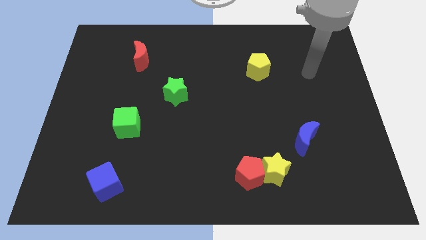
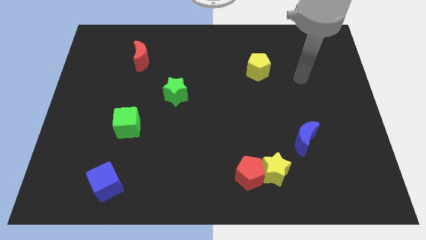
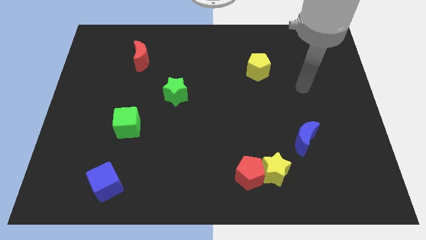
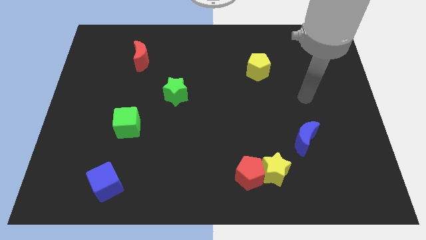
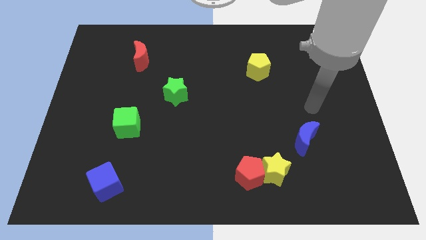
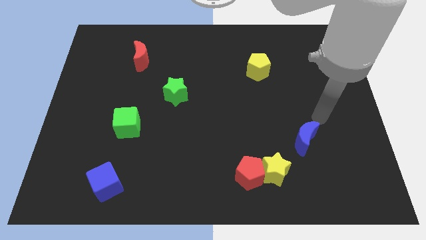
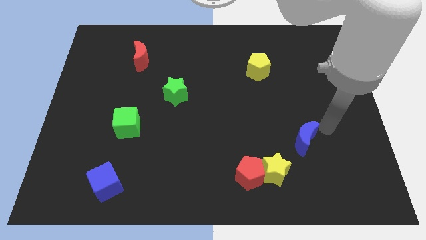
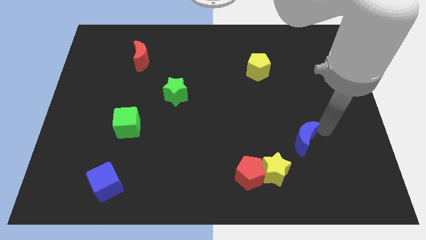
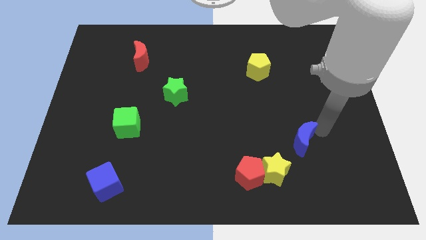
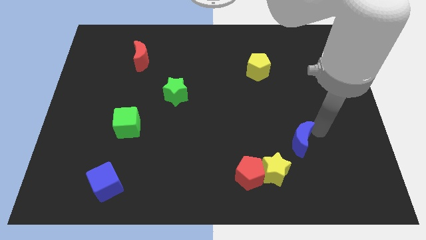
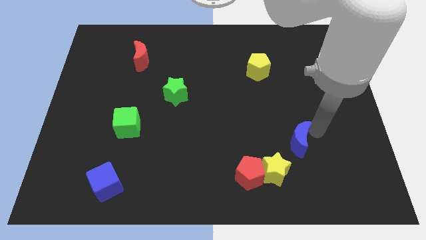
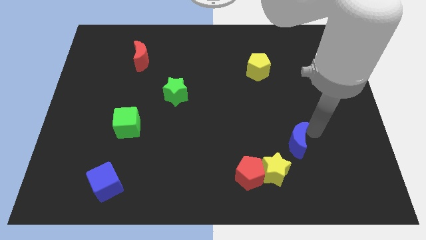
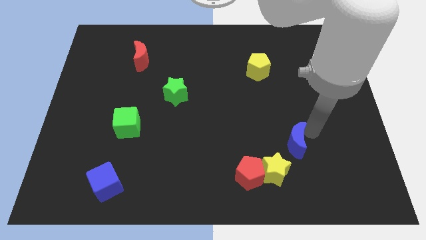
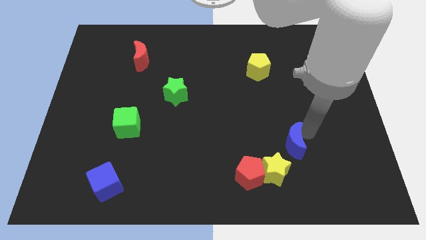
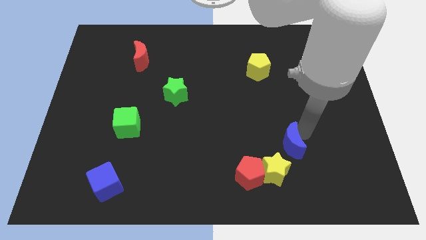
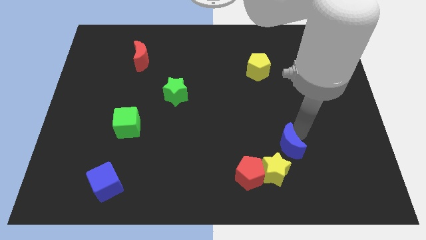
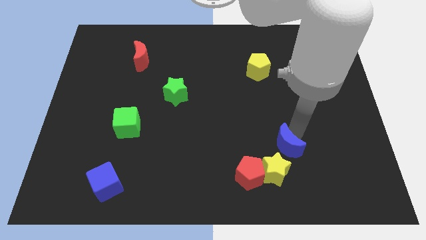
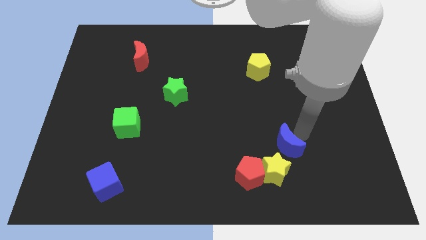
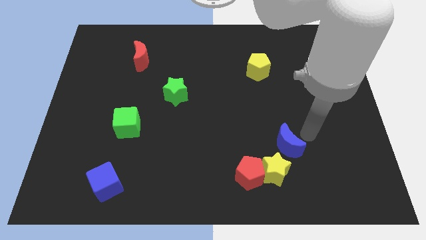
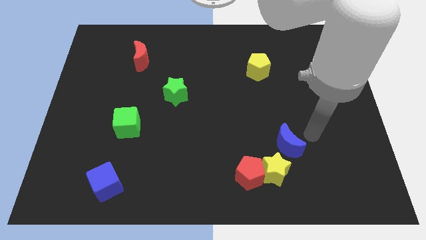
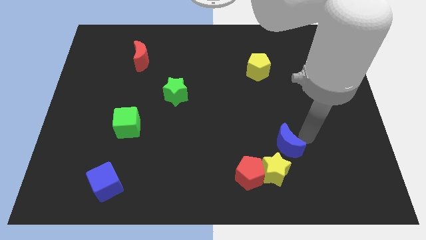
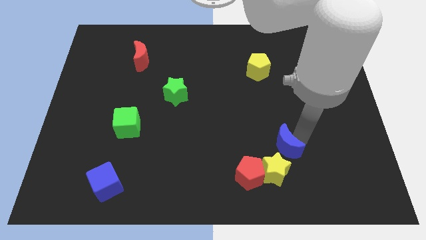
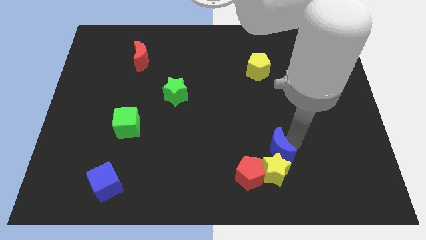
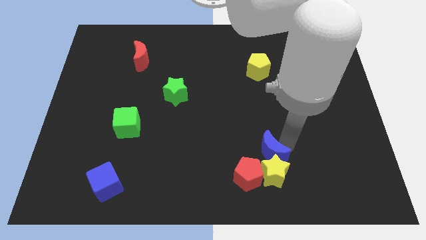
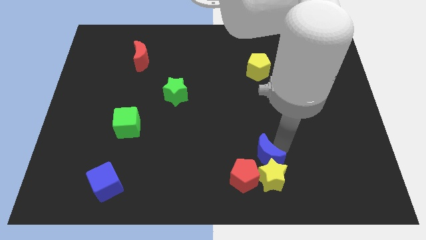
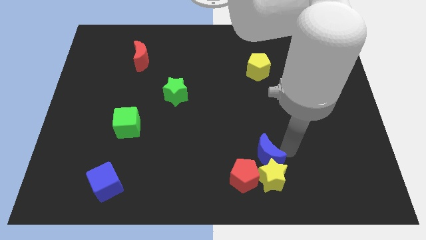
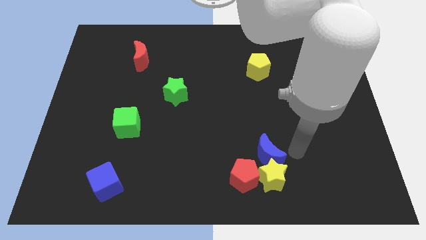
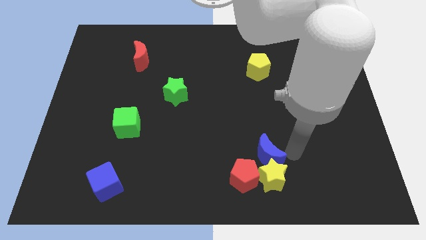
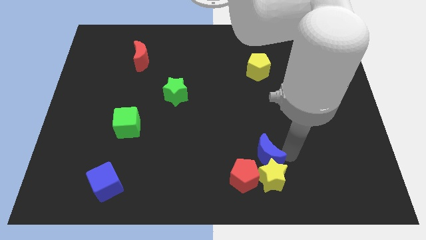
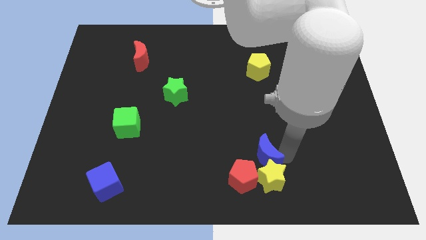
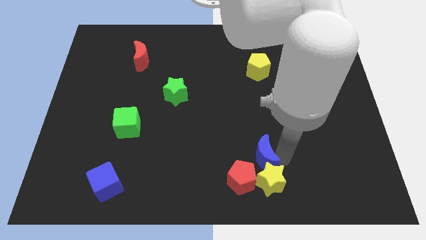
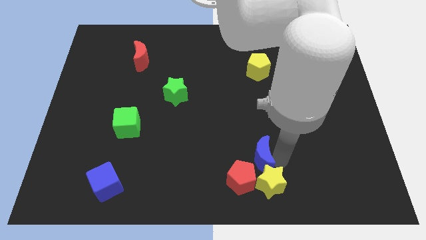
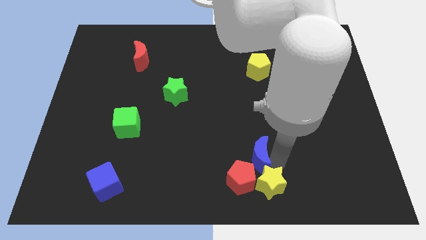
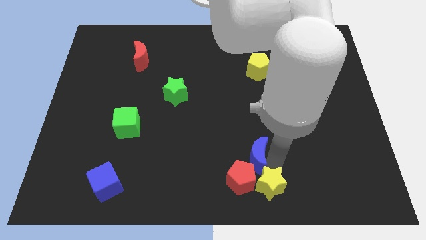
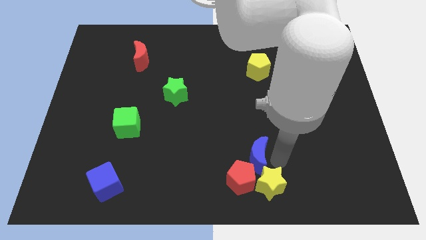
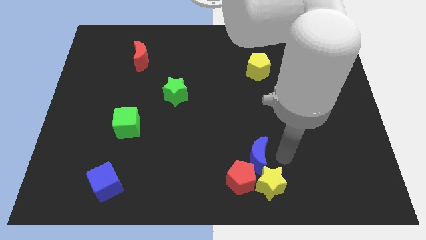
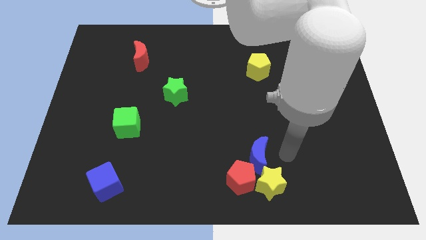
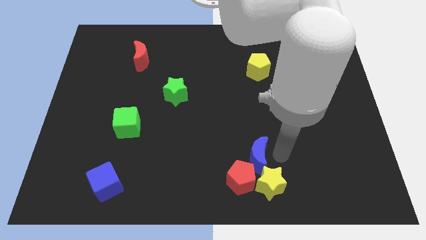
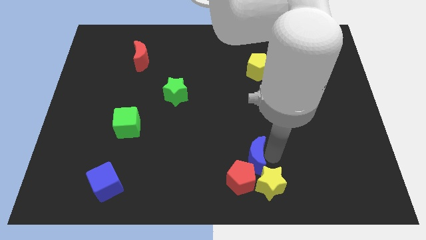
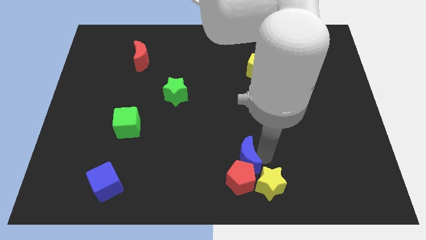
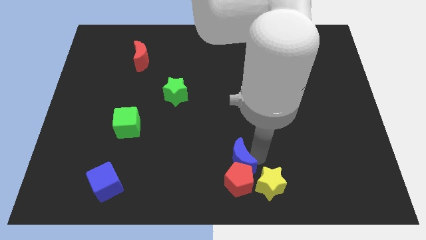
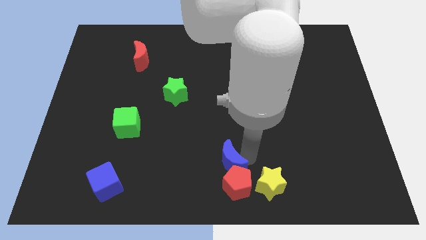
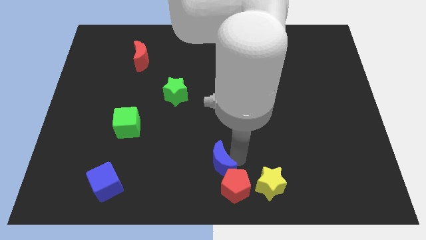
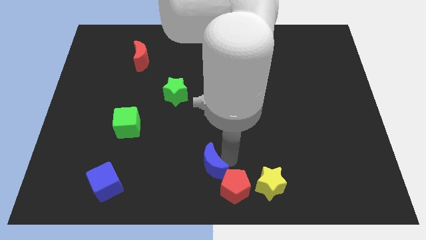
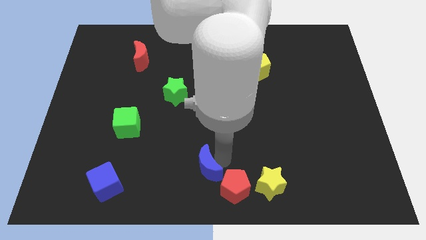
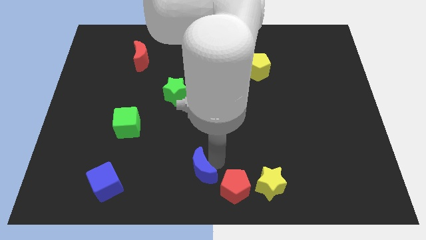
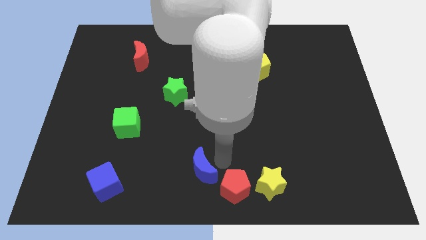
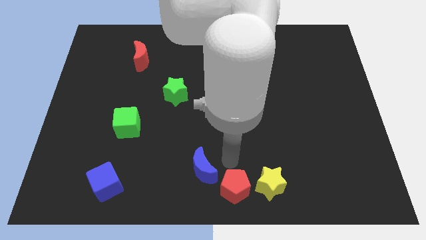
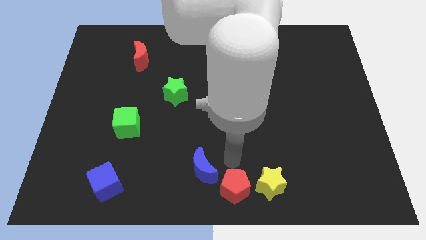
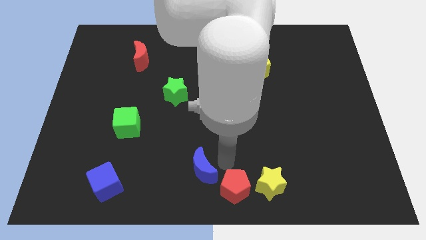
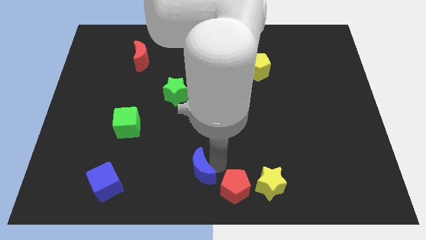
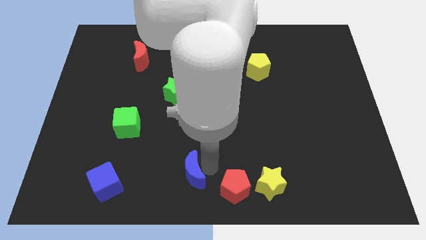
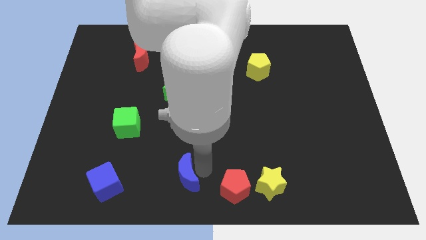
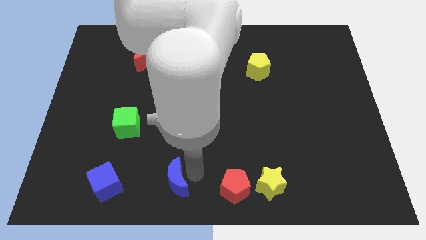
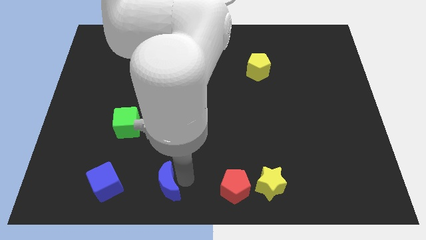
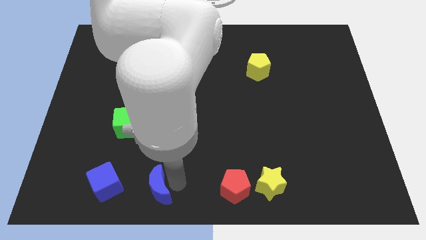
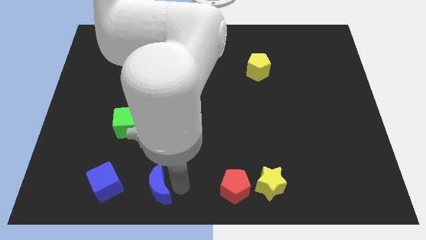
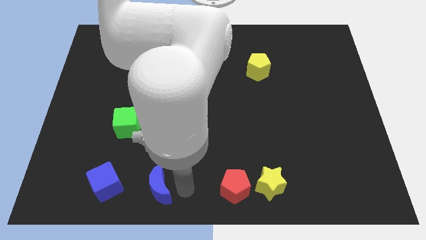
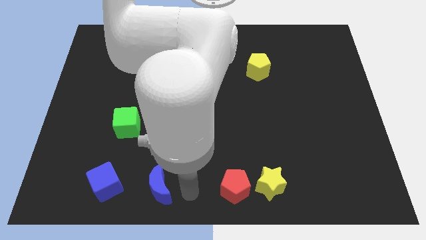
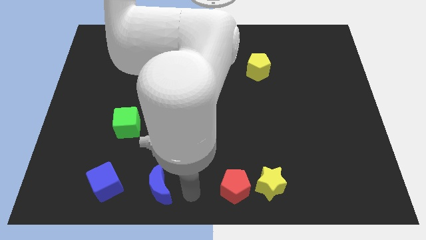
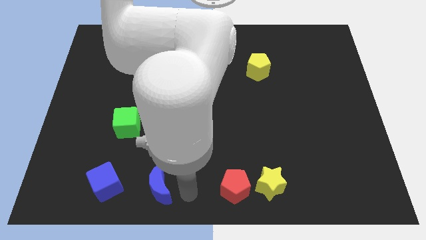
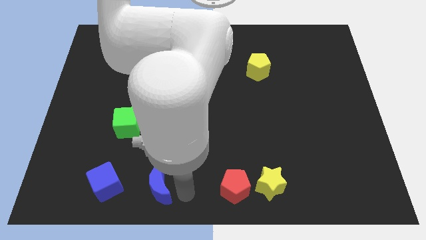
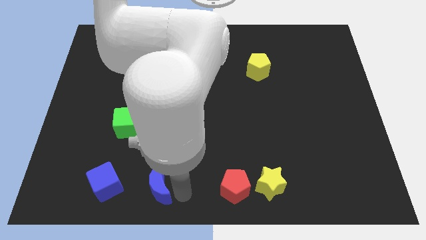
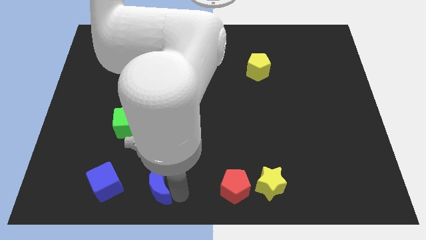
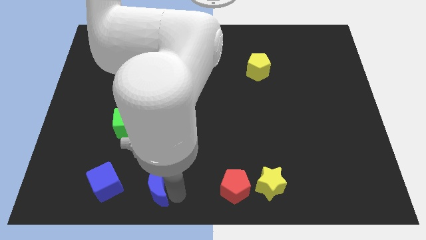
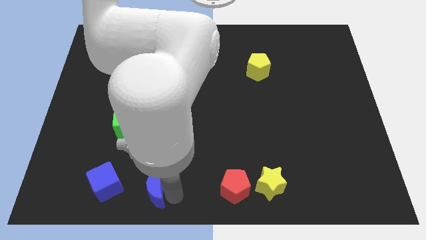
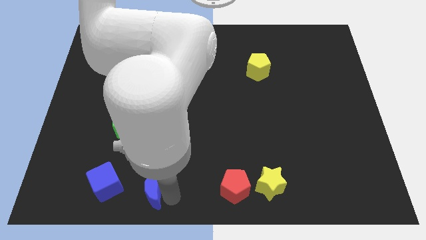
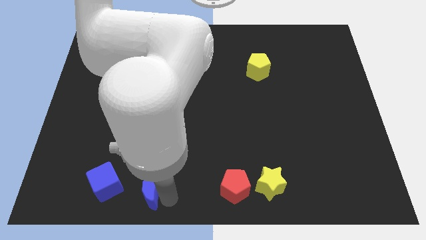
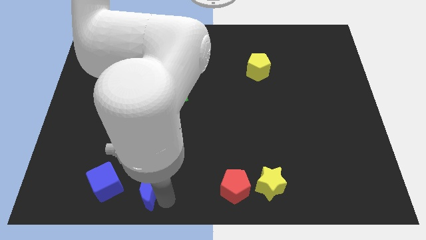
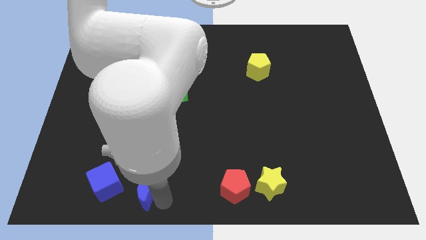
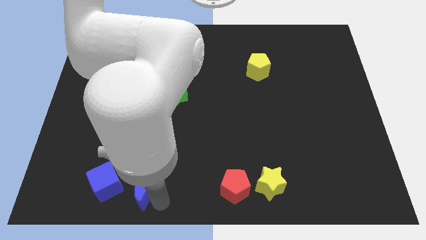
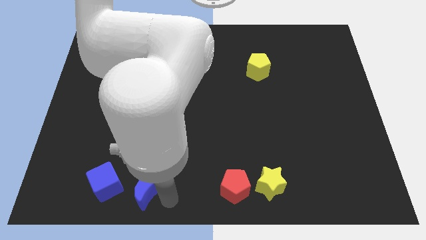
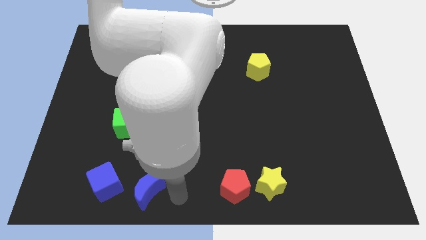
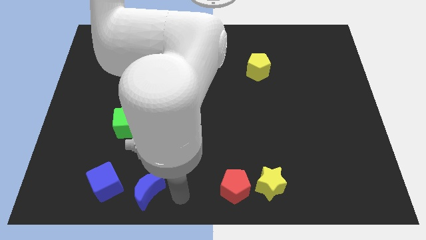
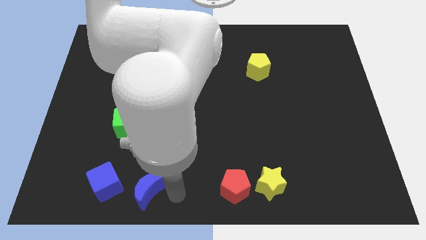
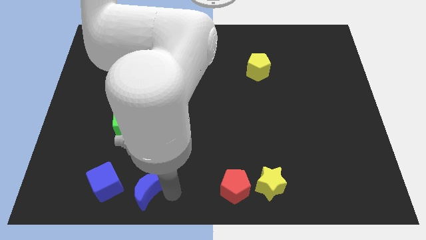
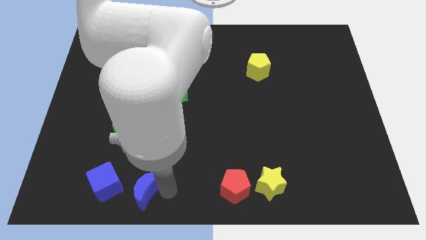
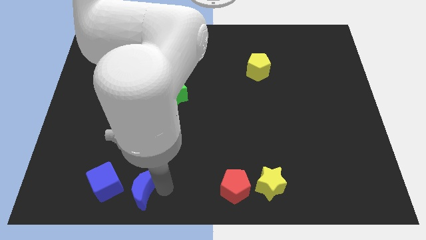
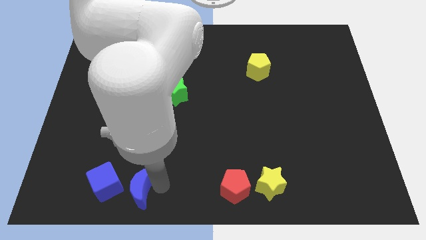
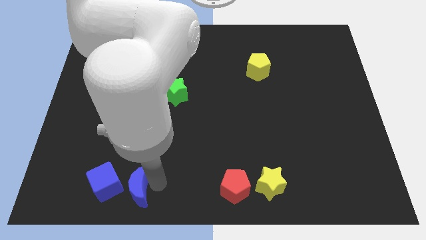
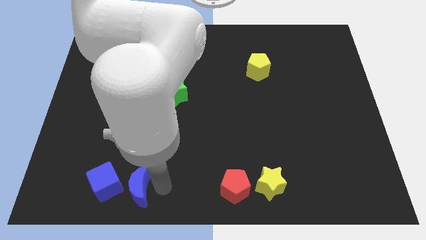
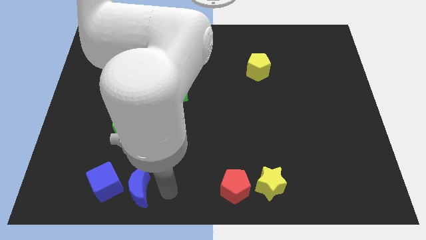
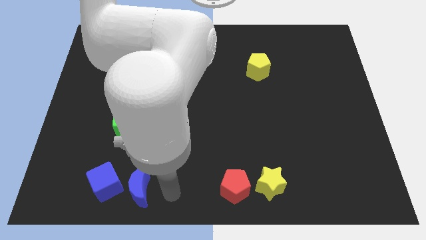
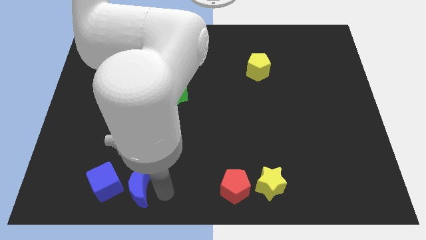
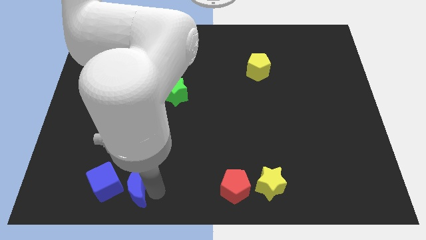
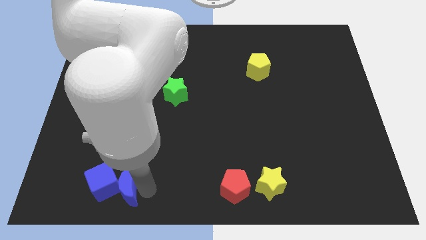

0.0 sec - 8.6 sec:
slide the blue moon next to the blue cube
